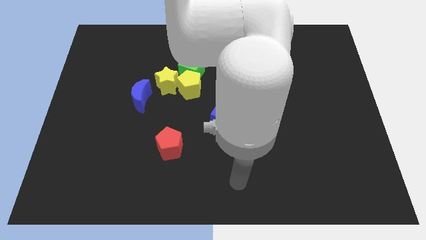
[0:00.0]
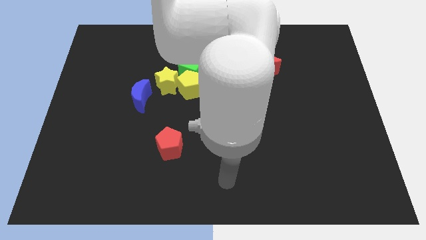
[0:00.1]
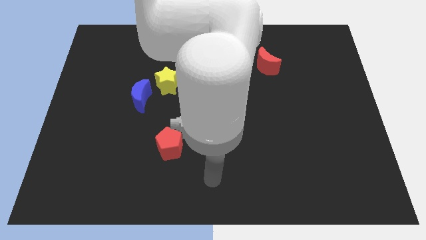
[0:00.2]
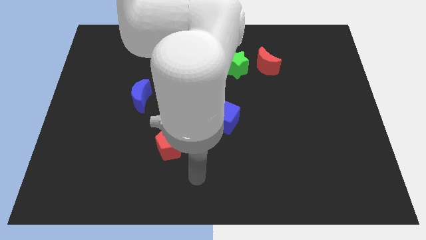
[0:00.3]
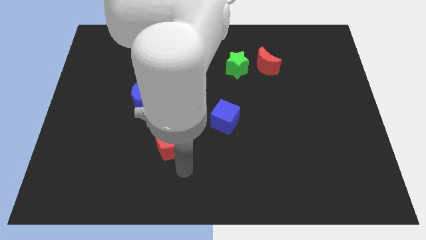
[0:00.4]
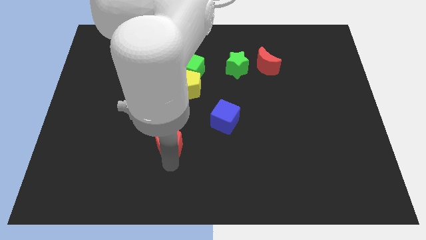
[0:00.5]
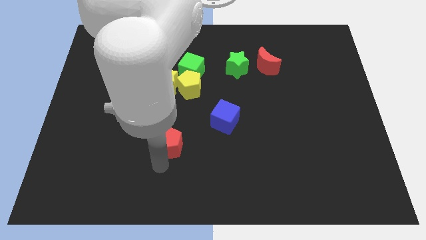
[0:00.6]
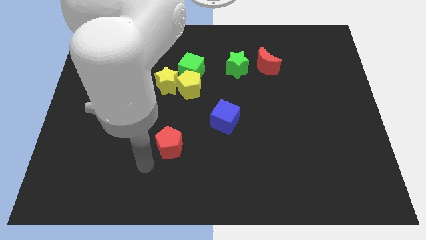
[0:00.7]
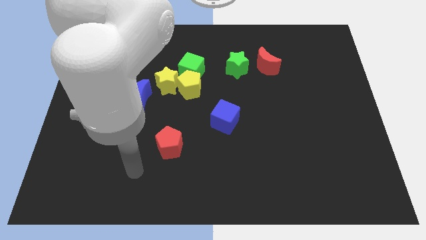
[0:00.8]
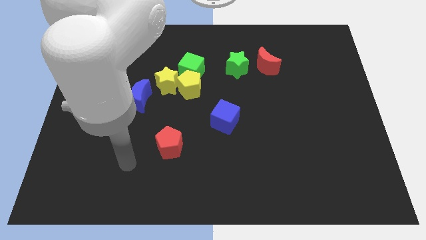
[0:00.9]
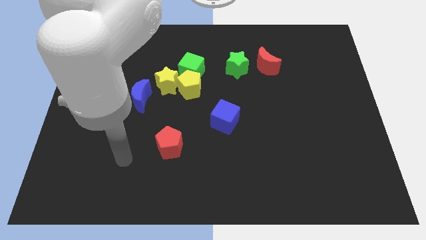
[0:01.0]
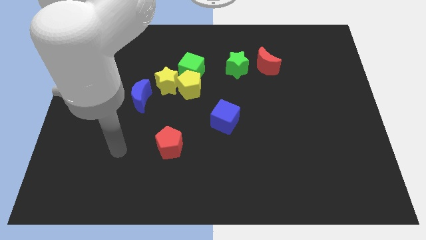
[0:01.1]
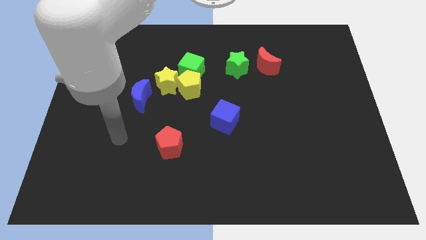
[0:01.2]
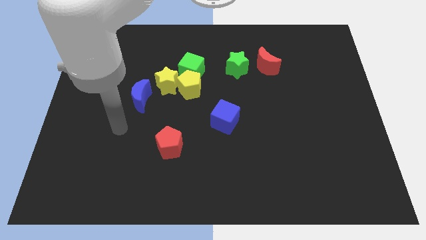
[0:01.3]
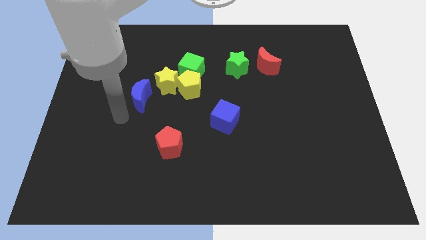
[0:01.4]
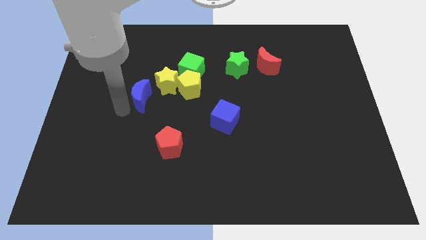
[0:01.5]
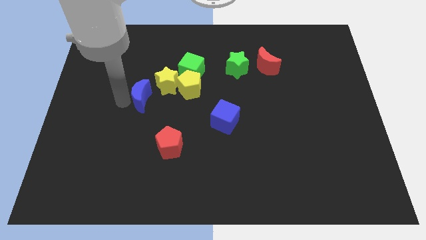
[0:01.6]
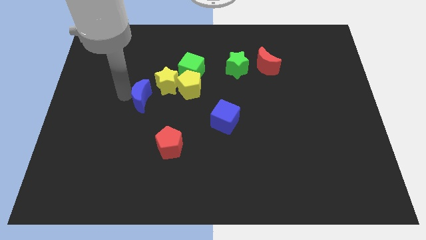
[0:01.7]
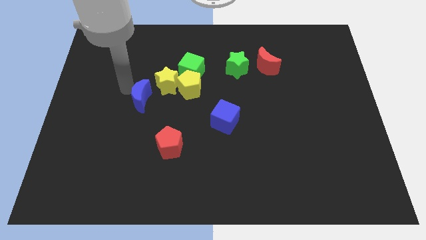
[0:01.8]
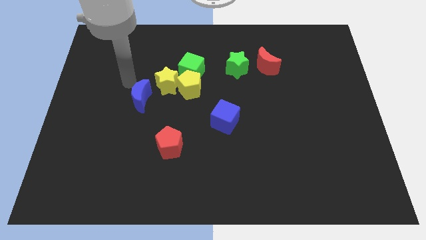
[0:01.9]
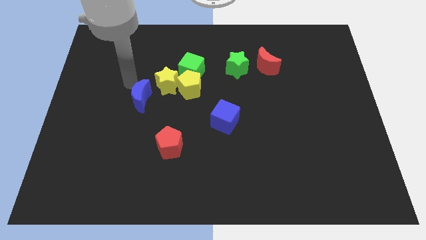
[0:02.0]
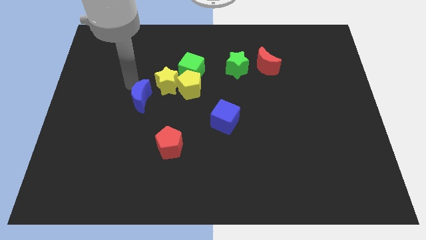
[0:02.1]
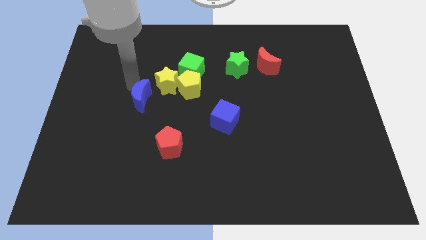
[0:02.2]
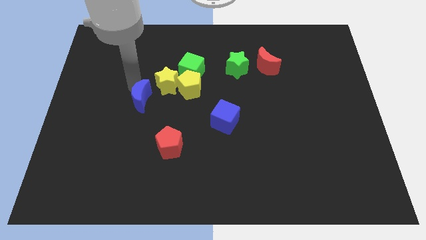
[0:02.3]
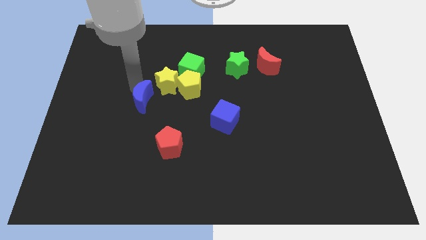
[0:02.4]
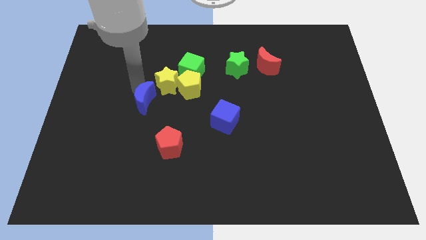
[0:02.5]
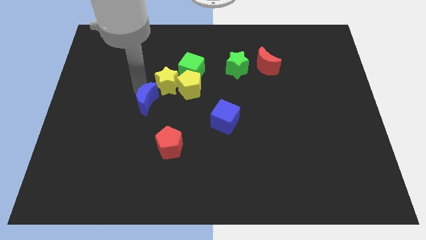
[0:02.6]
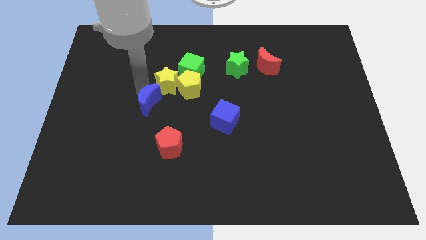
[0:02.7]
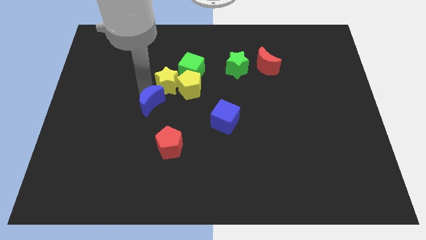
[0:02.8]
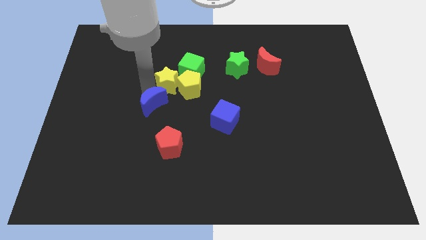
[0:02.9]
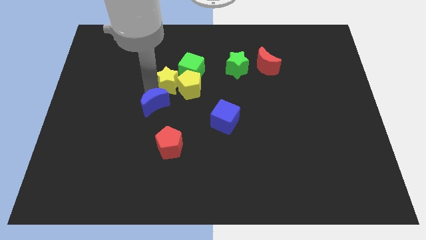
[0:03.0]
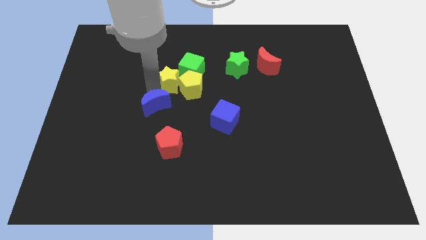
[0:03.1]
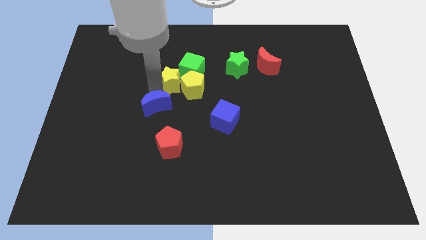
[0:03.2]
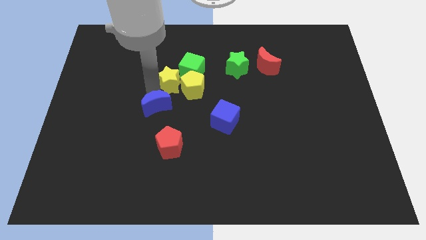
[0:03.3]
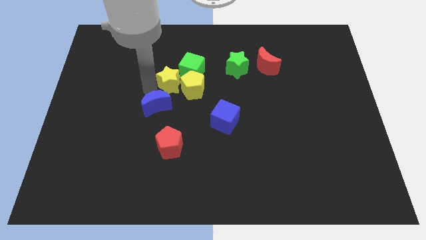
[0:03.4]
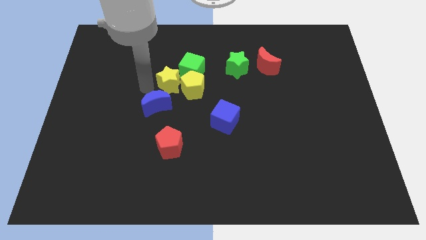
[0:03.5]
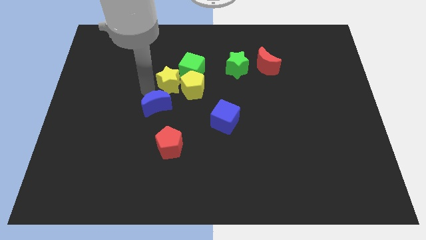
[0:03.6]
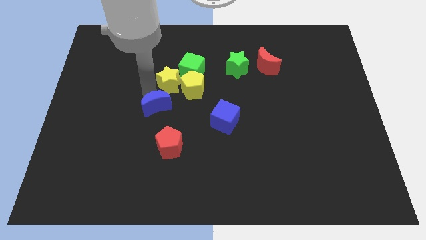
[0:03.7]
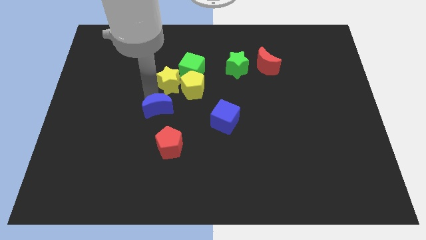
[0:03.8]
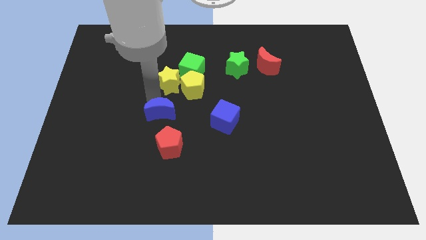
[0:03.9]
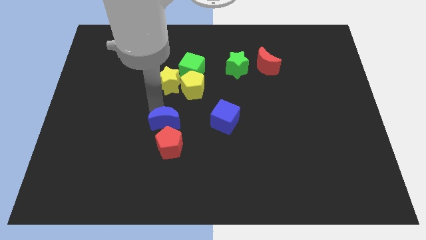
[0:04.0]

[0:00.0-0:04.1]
move the blue moon downwards and to the right a bit

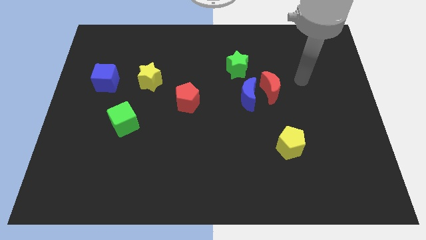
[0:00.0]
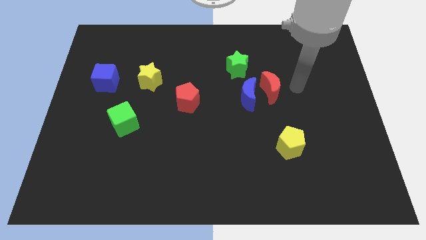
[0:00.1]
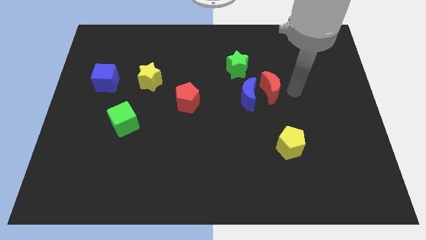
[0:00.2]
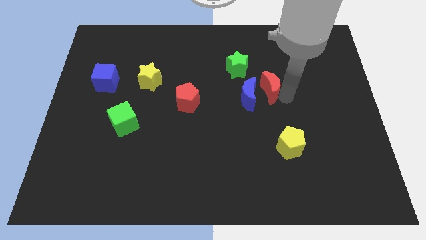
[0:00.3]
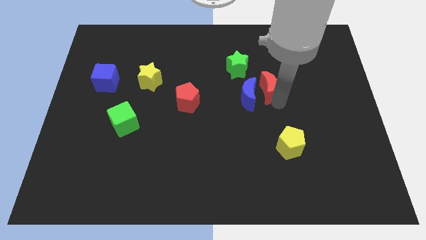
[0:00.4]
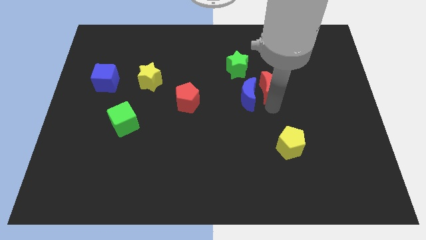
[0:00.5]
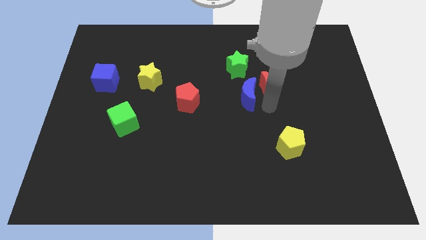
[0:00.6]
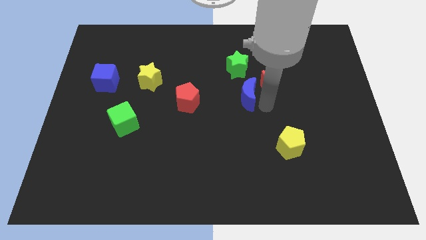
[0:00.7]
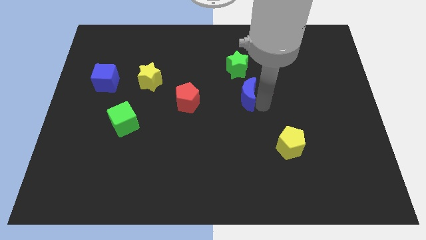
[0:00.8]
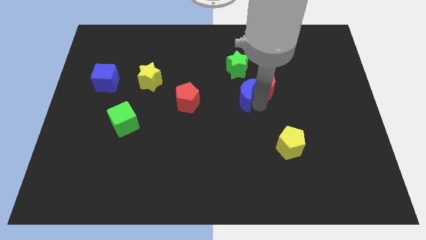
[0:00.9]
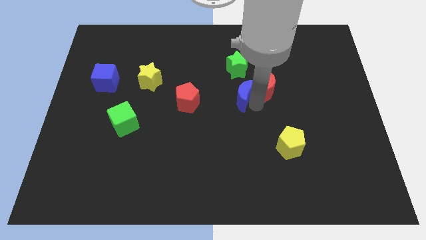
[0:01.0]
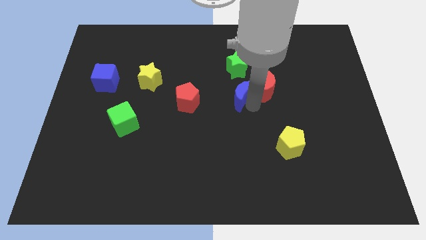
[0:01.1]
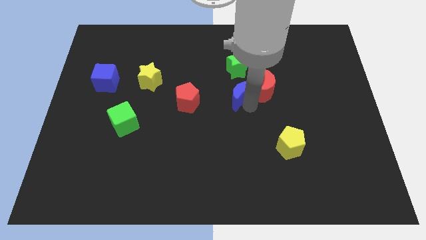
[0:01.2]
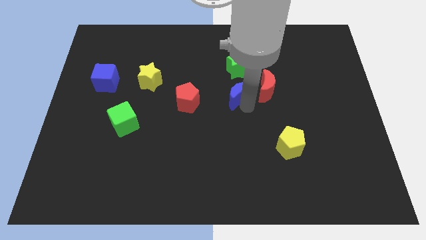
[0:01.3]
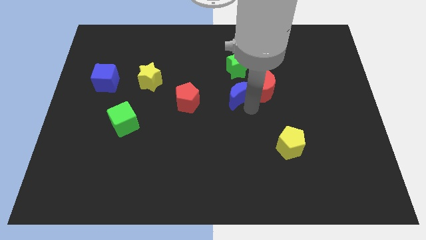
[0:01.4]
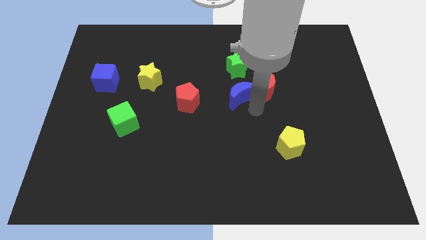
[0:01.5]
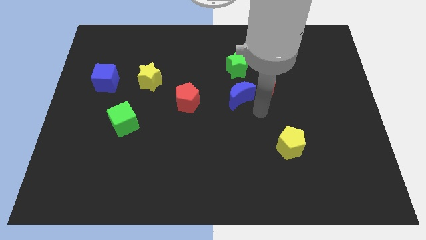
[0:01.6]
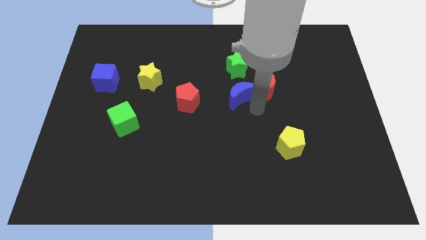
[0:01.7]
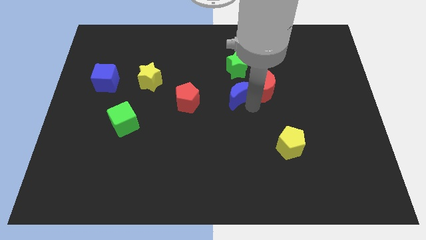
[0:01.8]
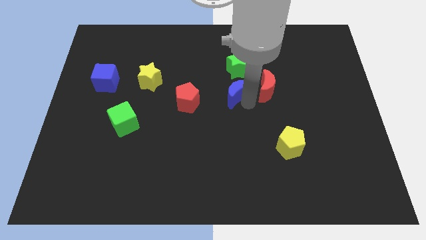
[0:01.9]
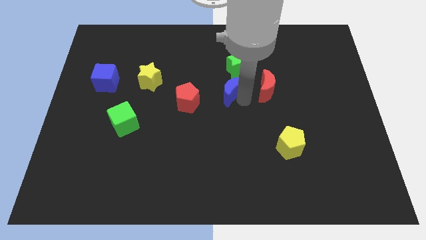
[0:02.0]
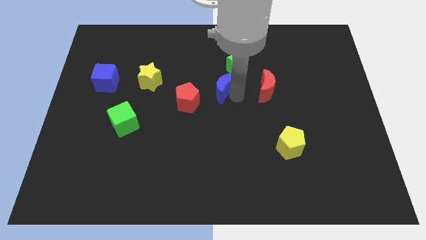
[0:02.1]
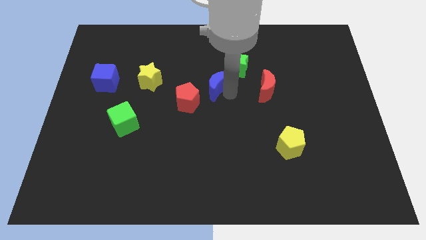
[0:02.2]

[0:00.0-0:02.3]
slightly slide the blue moon upwards and left

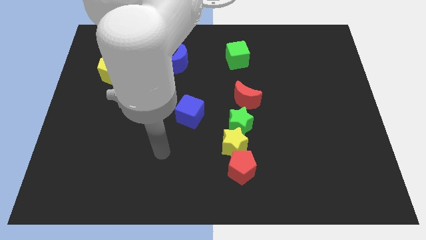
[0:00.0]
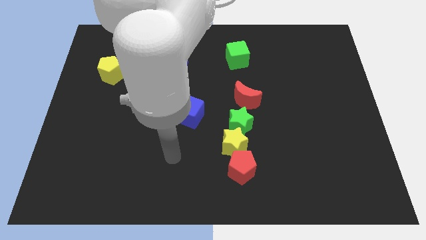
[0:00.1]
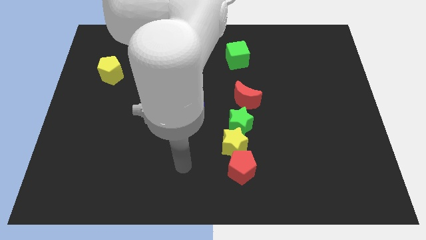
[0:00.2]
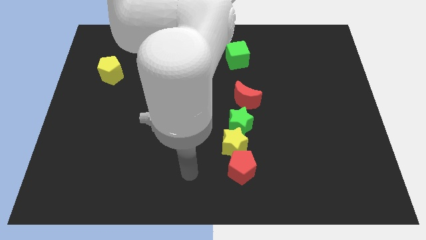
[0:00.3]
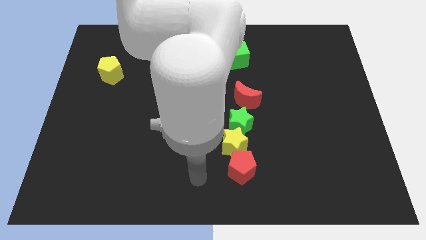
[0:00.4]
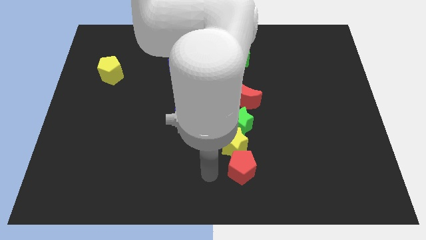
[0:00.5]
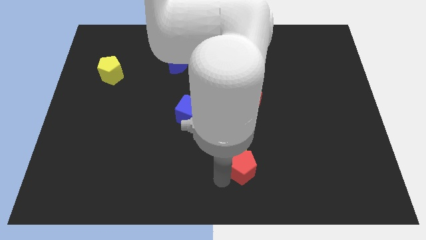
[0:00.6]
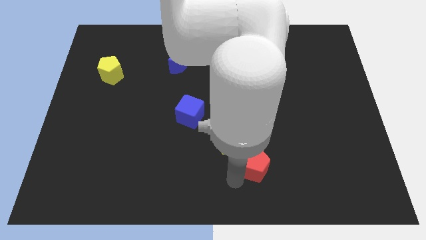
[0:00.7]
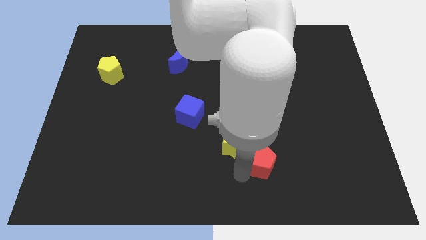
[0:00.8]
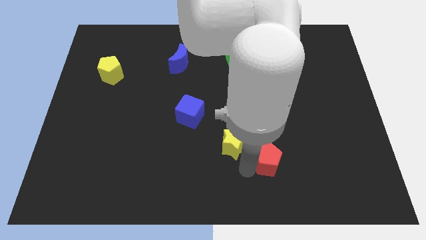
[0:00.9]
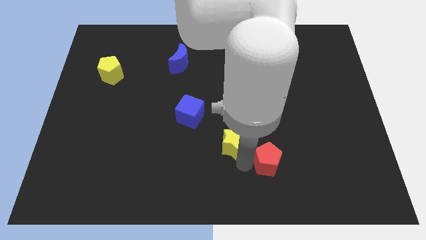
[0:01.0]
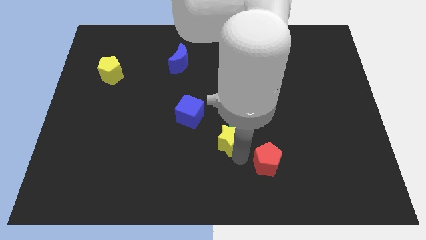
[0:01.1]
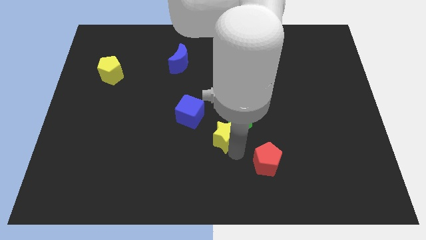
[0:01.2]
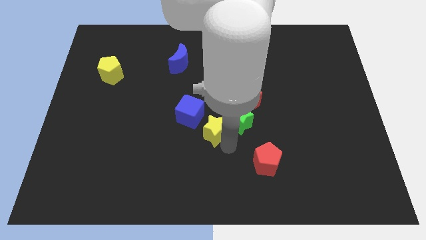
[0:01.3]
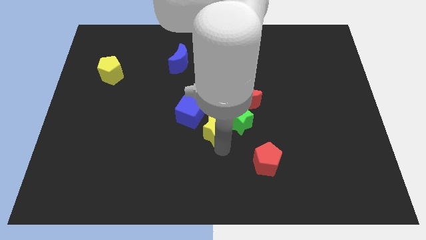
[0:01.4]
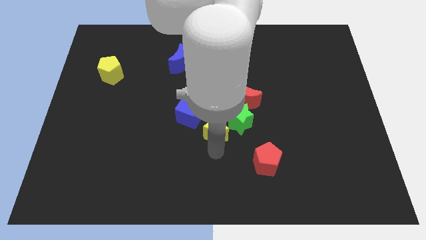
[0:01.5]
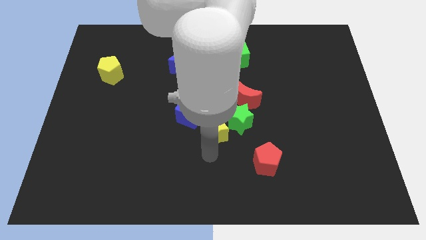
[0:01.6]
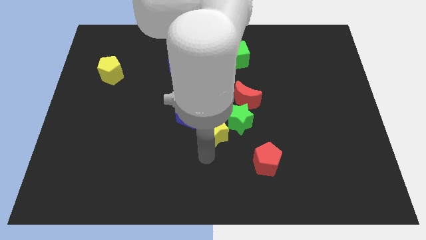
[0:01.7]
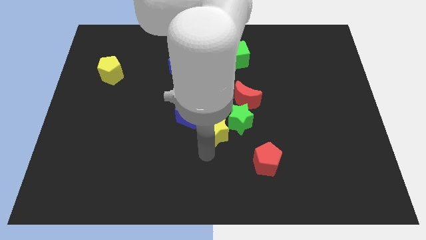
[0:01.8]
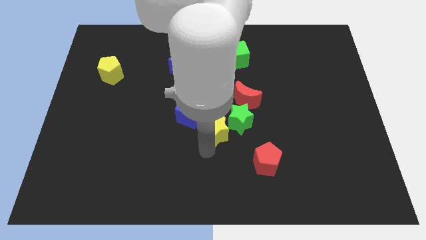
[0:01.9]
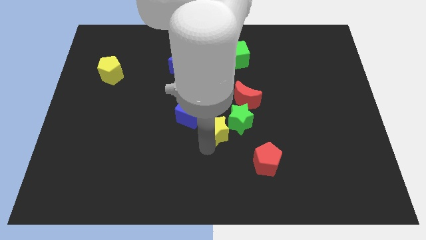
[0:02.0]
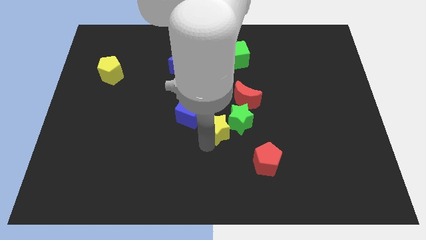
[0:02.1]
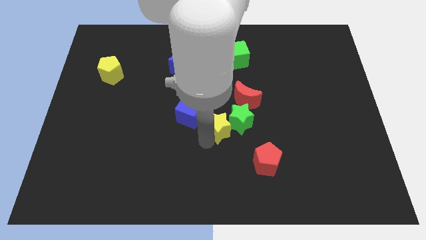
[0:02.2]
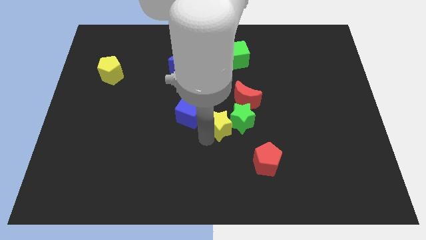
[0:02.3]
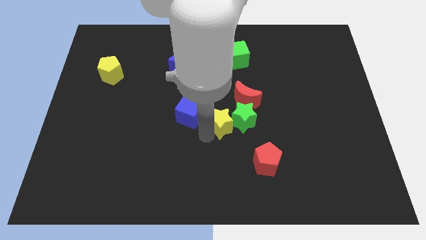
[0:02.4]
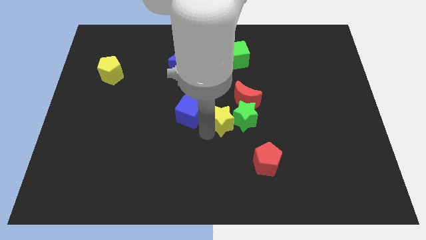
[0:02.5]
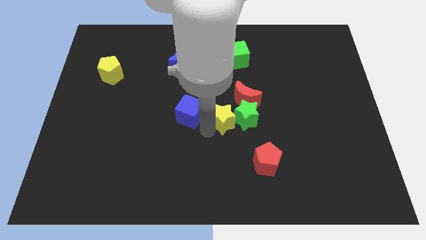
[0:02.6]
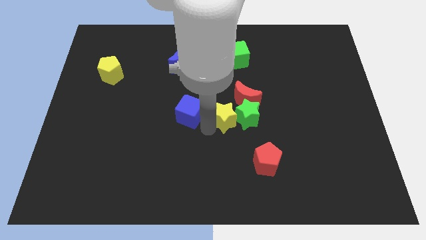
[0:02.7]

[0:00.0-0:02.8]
slightly slide the yellow star upwards
